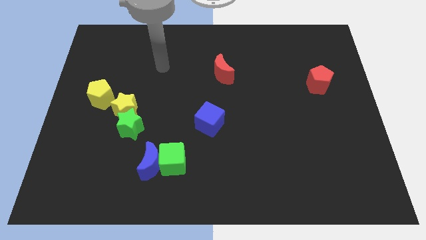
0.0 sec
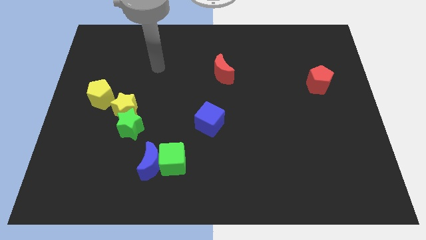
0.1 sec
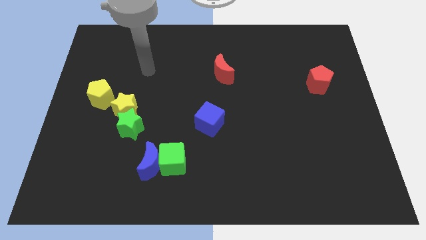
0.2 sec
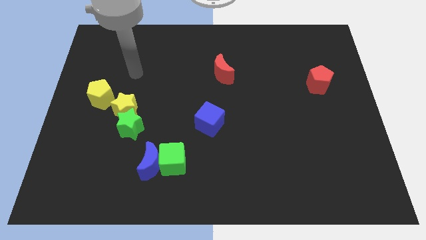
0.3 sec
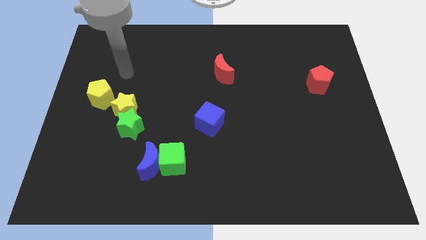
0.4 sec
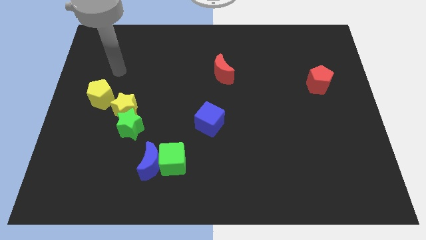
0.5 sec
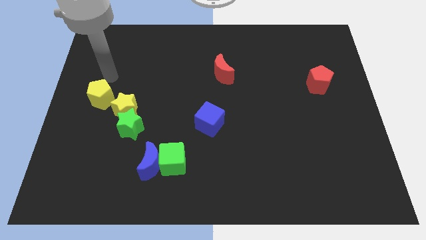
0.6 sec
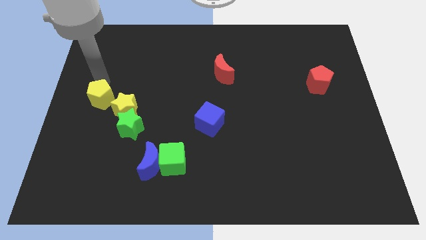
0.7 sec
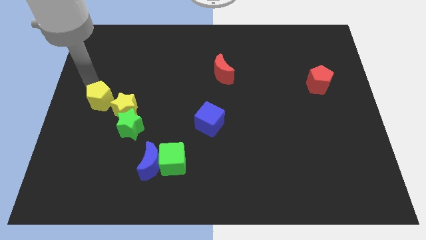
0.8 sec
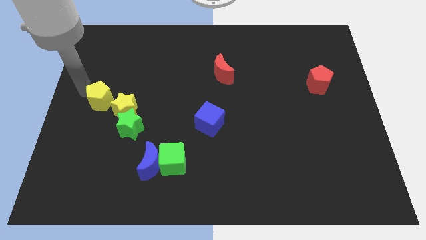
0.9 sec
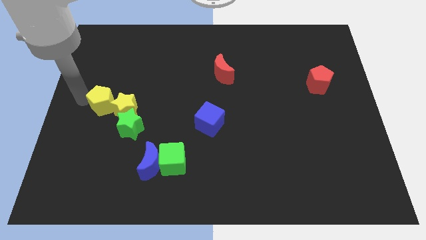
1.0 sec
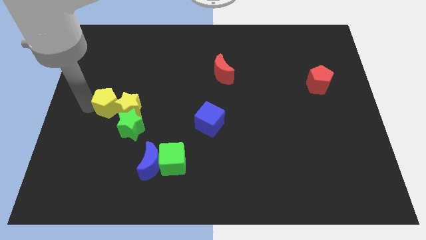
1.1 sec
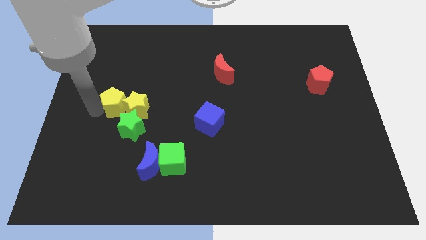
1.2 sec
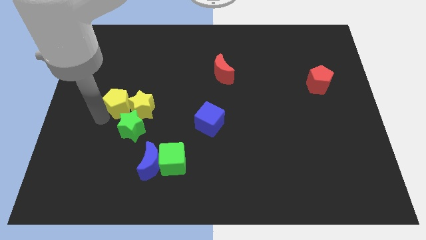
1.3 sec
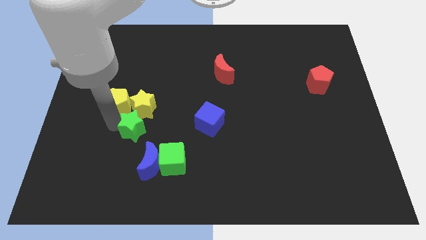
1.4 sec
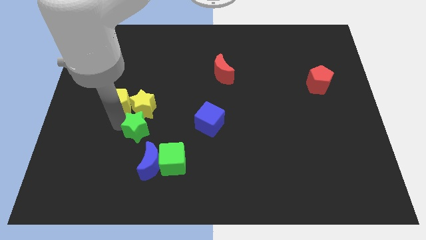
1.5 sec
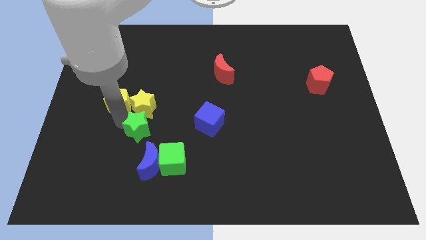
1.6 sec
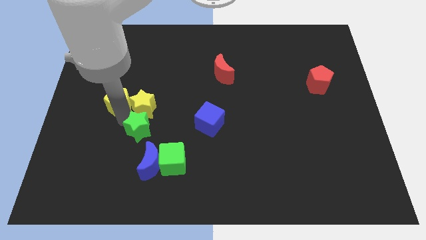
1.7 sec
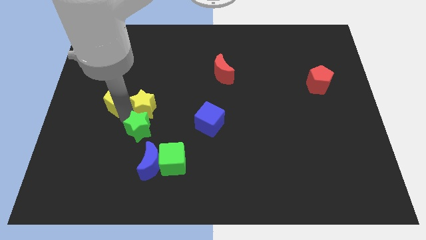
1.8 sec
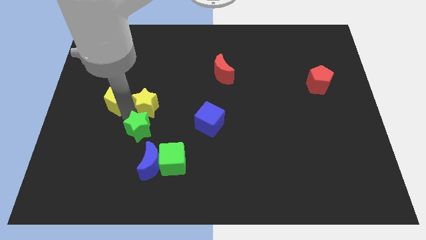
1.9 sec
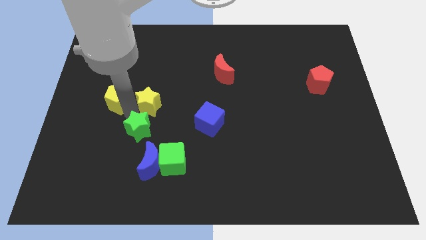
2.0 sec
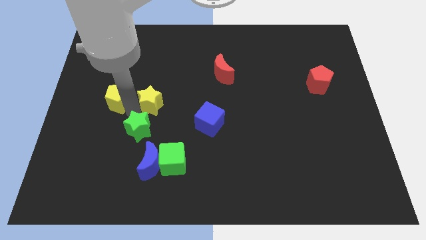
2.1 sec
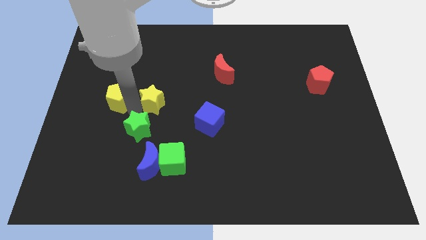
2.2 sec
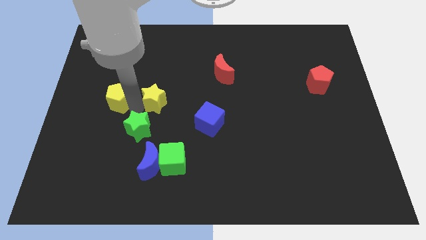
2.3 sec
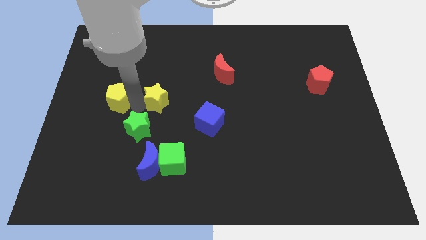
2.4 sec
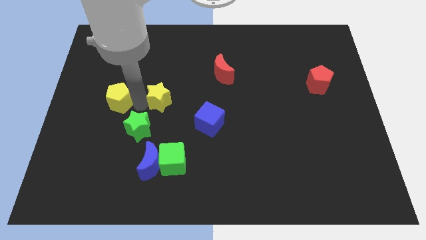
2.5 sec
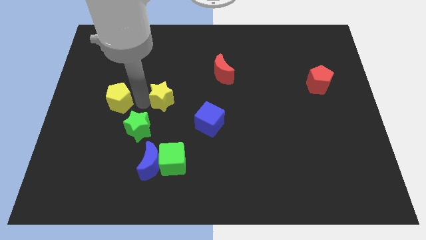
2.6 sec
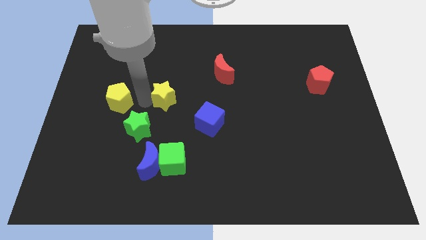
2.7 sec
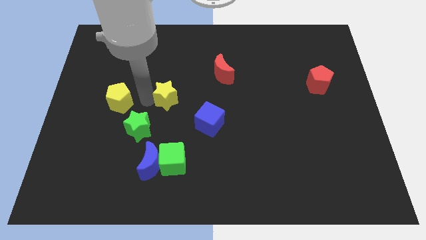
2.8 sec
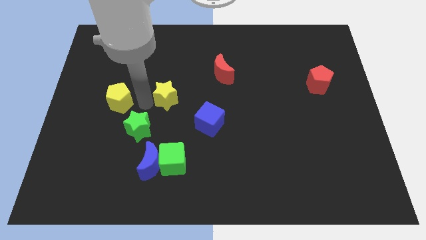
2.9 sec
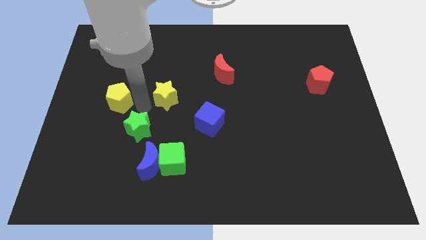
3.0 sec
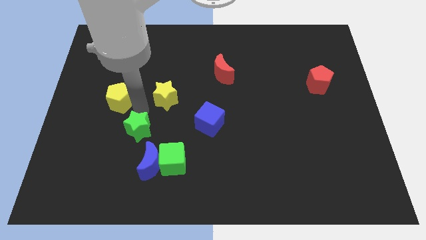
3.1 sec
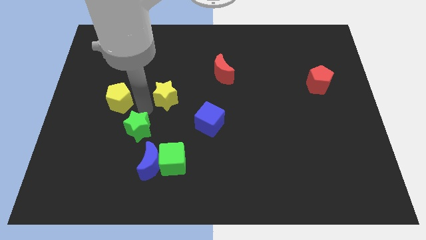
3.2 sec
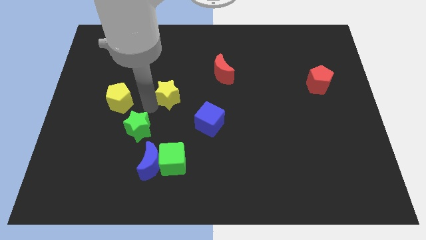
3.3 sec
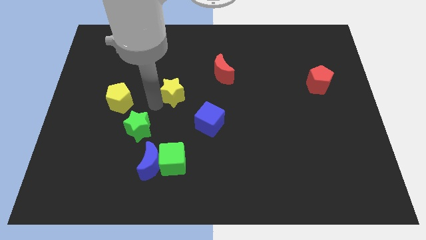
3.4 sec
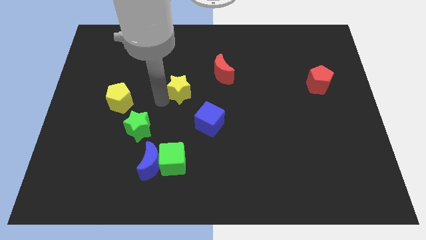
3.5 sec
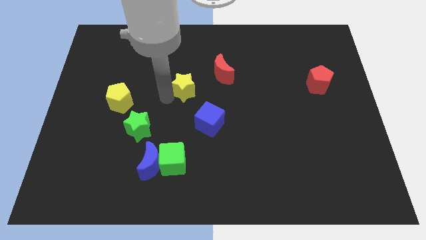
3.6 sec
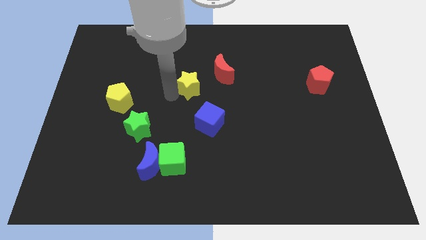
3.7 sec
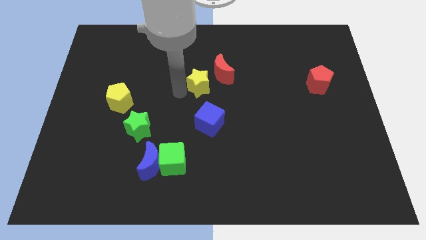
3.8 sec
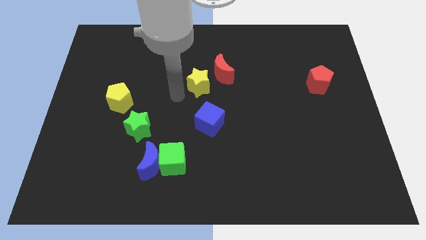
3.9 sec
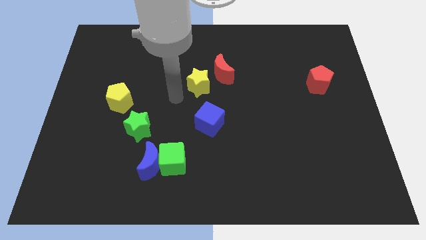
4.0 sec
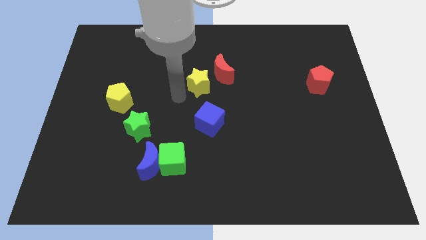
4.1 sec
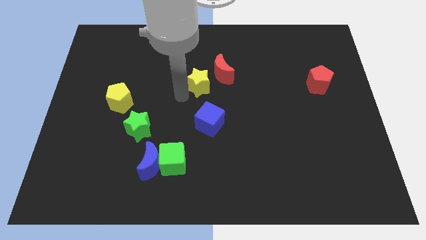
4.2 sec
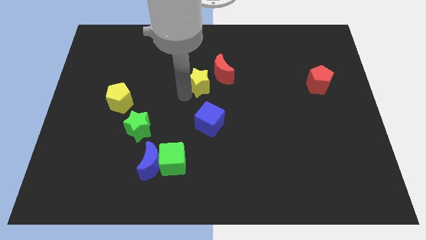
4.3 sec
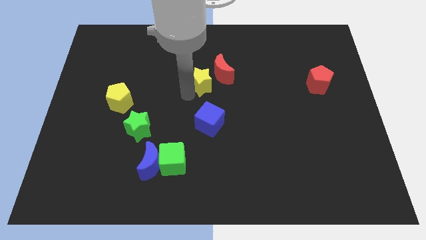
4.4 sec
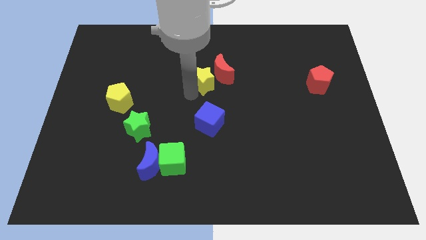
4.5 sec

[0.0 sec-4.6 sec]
move the yellow star close to the red moon

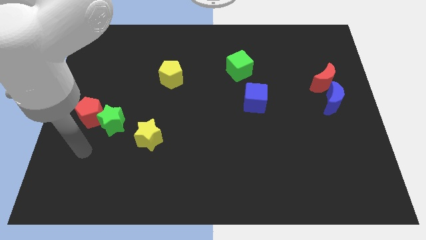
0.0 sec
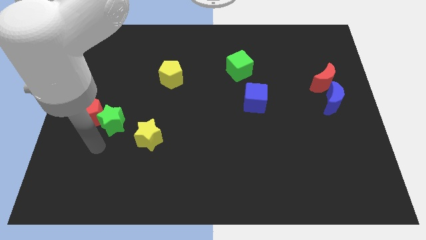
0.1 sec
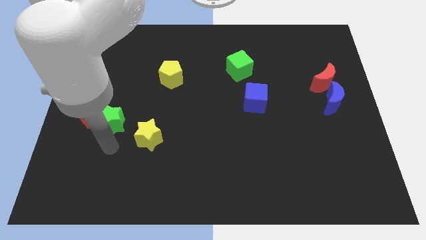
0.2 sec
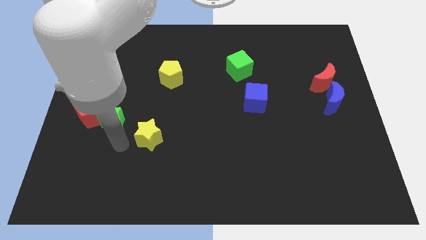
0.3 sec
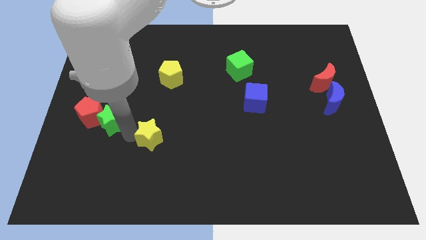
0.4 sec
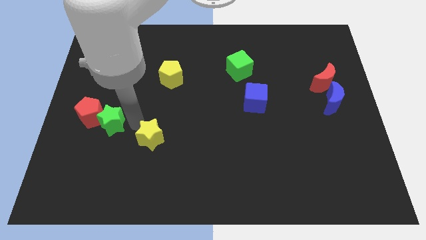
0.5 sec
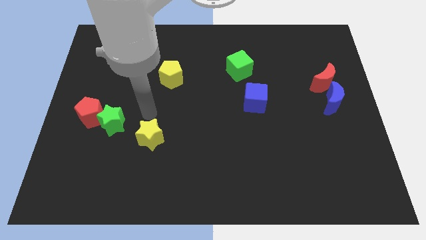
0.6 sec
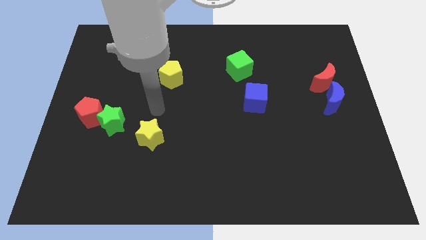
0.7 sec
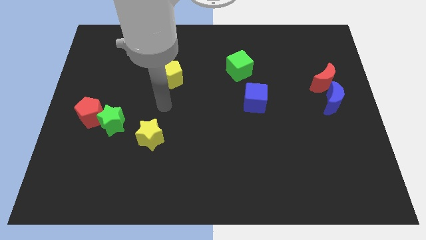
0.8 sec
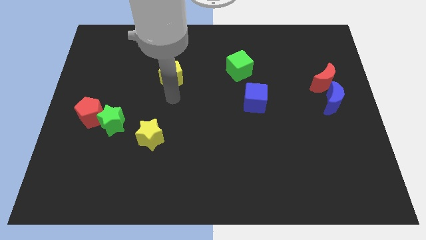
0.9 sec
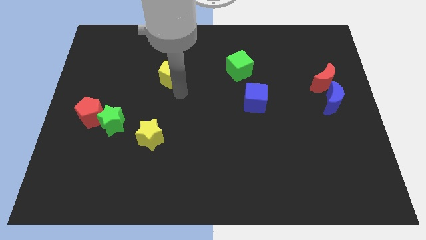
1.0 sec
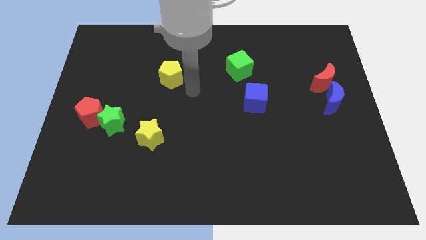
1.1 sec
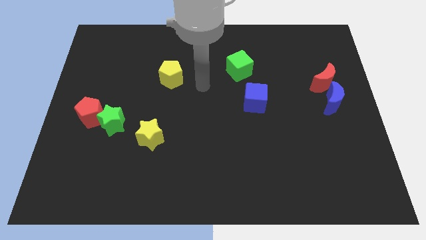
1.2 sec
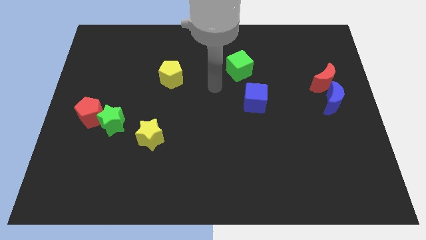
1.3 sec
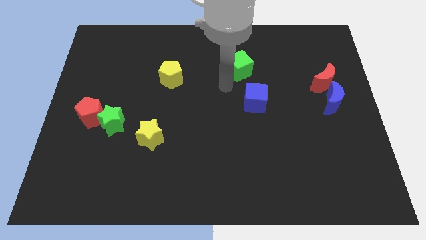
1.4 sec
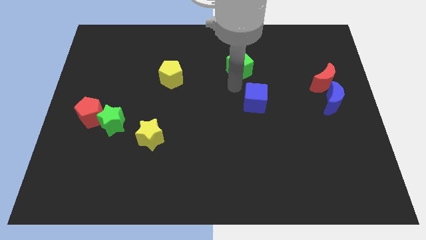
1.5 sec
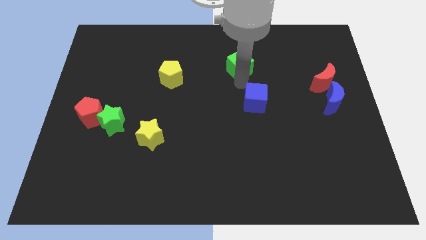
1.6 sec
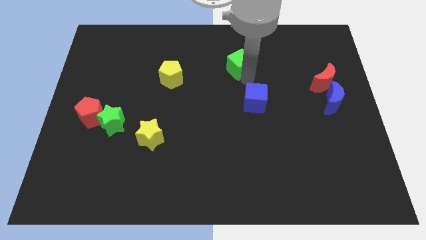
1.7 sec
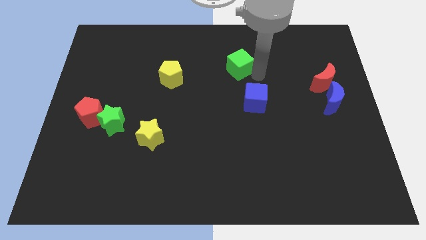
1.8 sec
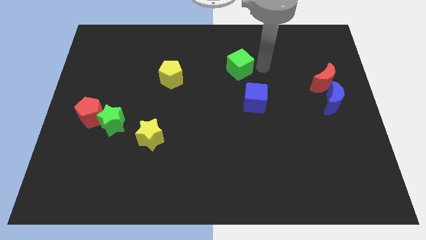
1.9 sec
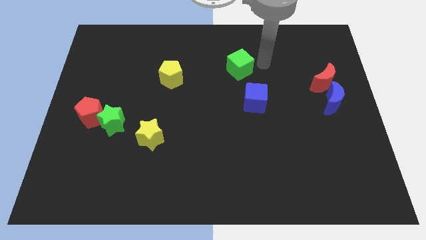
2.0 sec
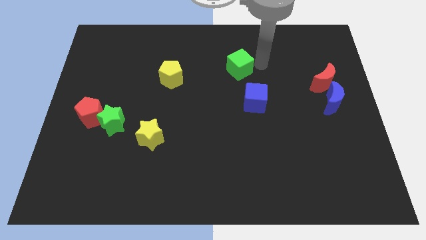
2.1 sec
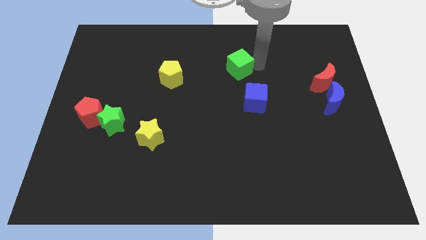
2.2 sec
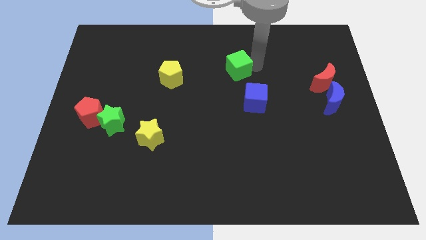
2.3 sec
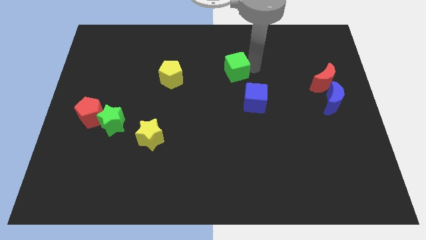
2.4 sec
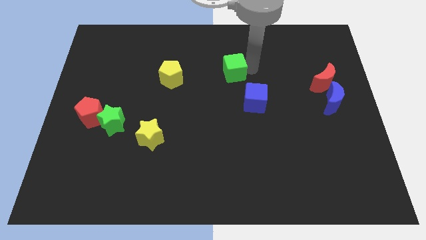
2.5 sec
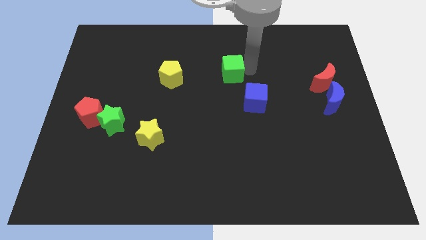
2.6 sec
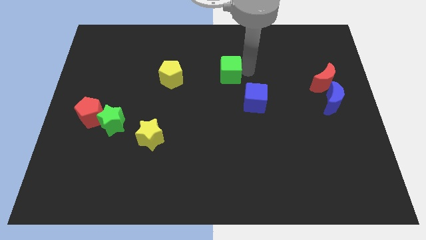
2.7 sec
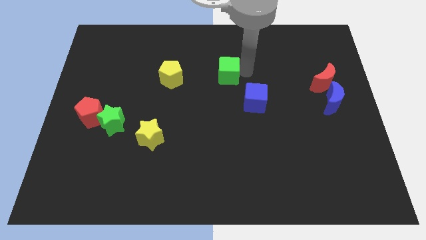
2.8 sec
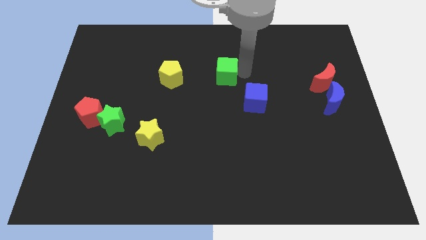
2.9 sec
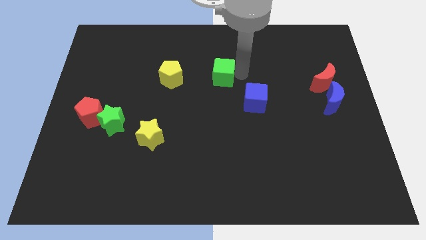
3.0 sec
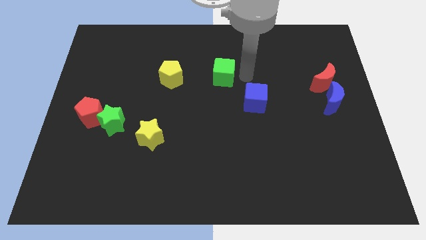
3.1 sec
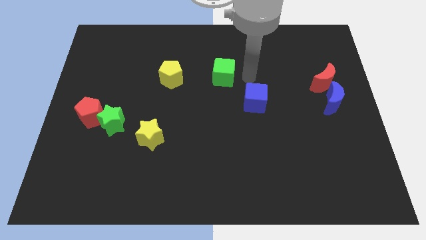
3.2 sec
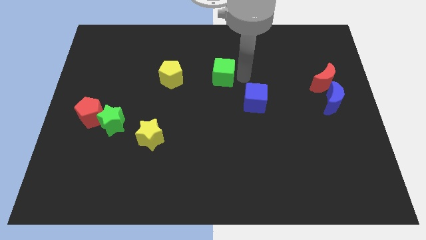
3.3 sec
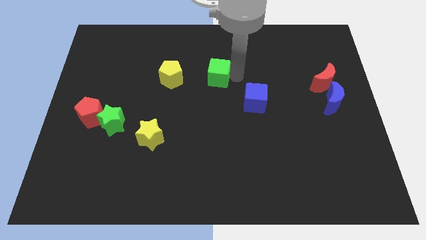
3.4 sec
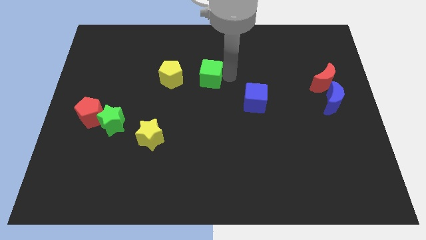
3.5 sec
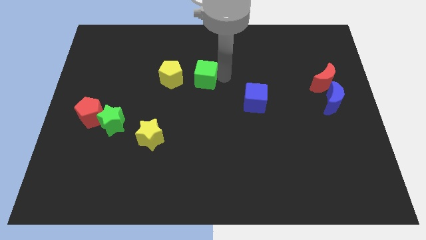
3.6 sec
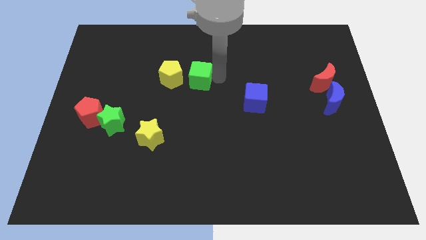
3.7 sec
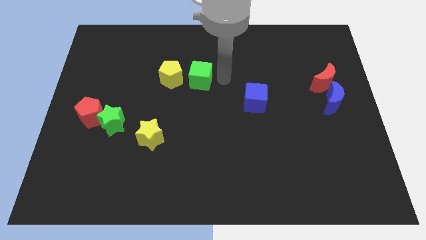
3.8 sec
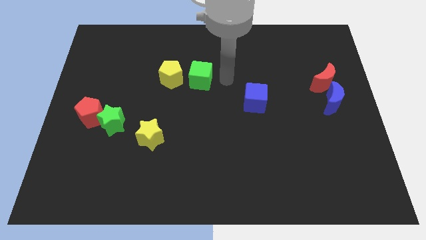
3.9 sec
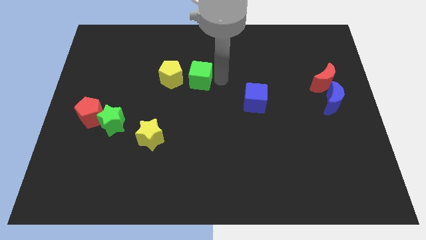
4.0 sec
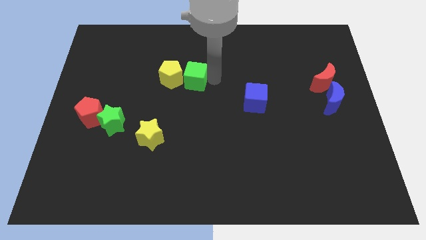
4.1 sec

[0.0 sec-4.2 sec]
slide the green cube towards the yellow pentagon
